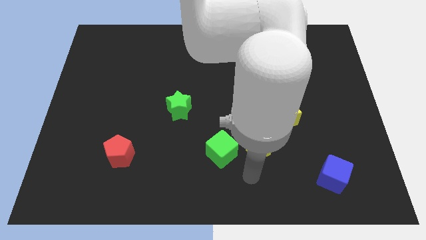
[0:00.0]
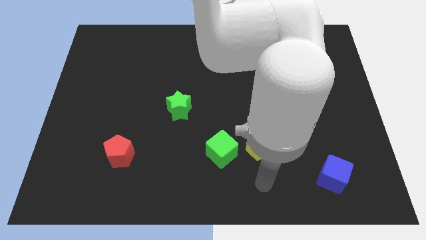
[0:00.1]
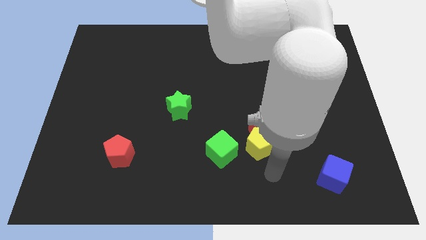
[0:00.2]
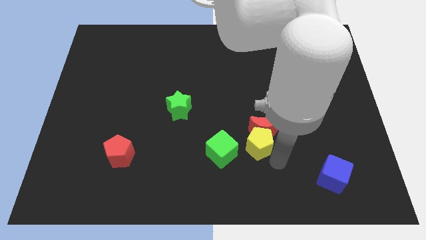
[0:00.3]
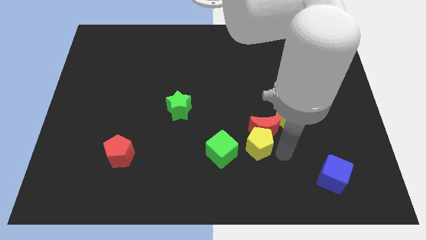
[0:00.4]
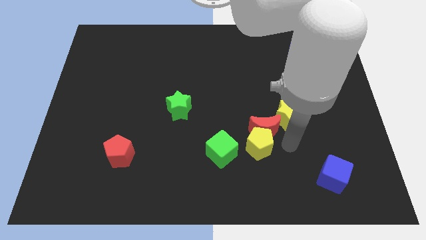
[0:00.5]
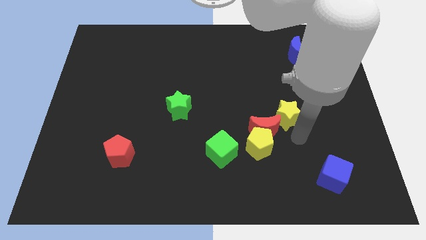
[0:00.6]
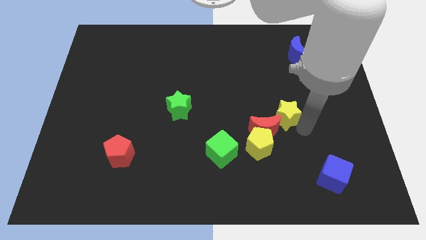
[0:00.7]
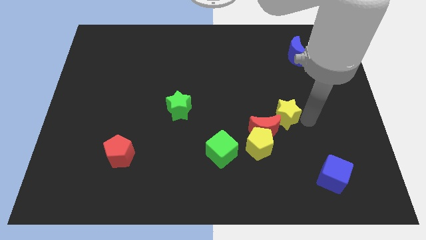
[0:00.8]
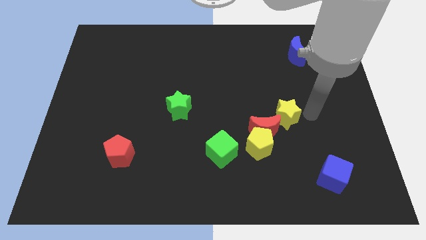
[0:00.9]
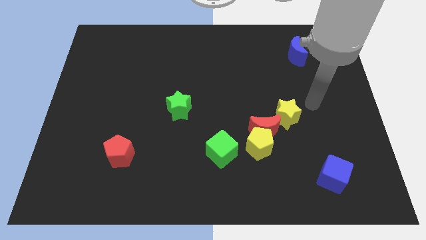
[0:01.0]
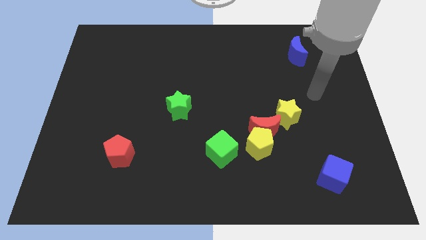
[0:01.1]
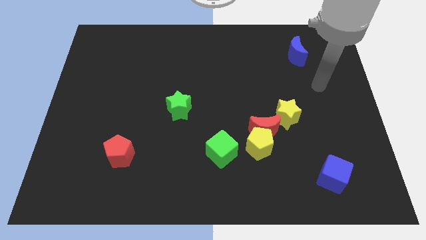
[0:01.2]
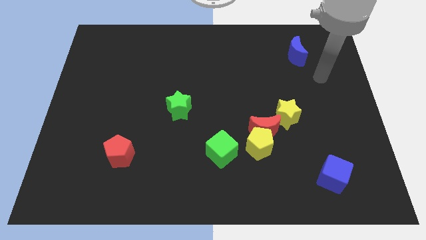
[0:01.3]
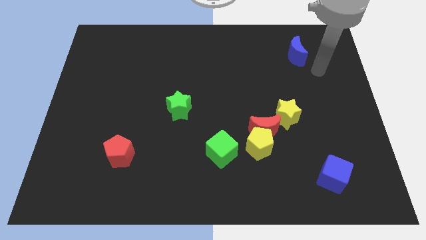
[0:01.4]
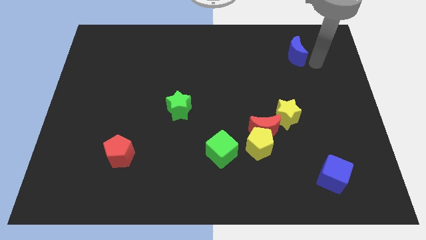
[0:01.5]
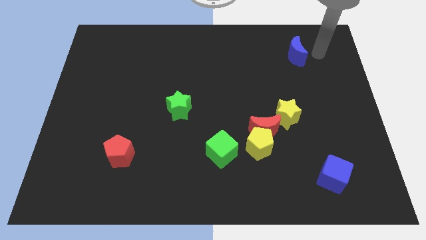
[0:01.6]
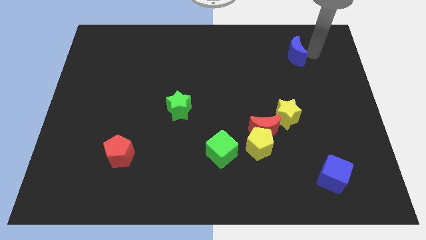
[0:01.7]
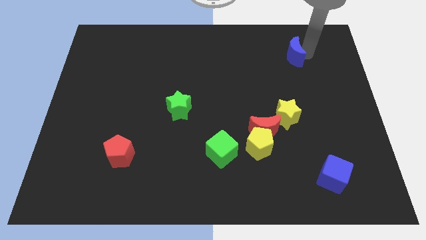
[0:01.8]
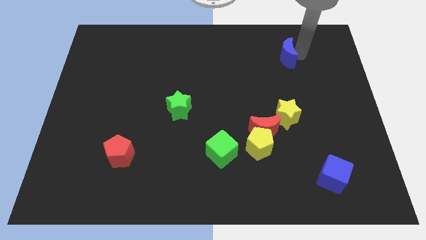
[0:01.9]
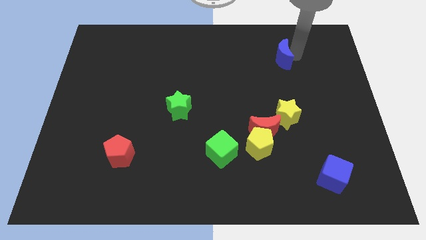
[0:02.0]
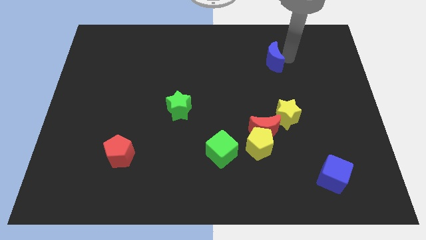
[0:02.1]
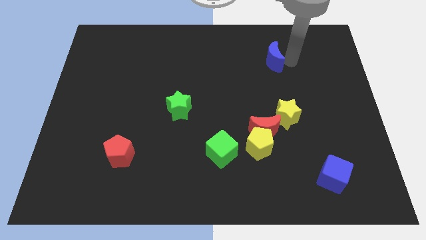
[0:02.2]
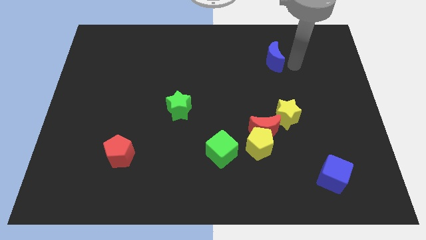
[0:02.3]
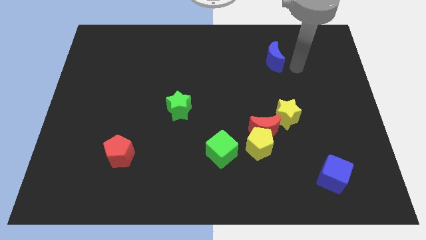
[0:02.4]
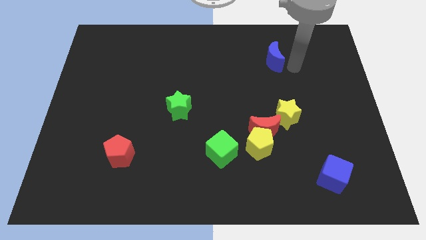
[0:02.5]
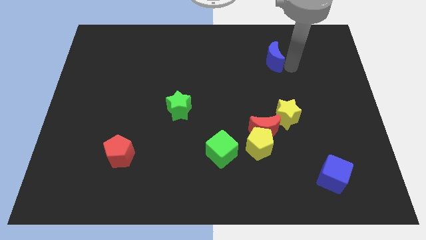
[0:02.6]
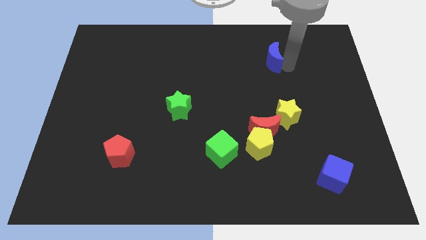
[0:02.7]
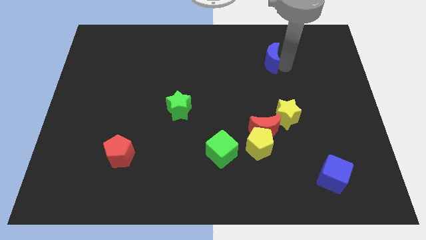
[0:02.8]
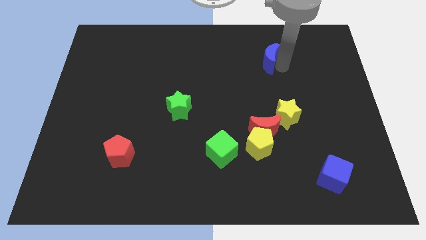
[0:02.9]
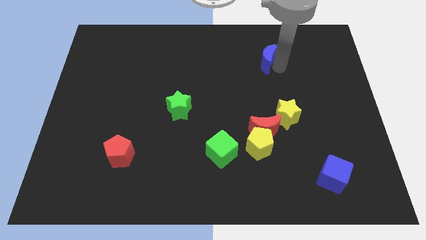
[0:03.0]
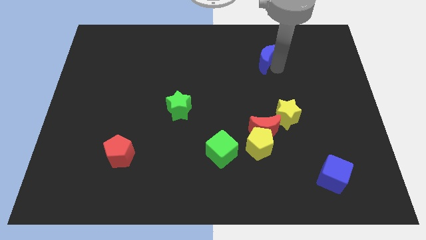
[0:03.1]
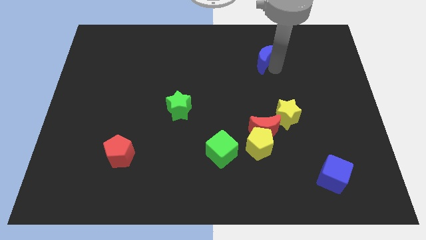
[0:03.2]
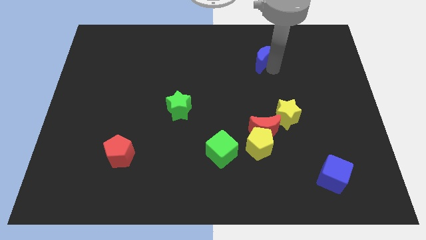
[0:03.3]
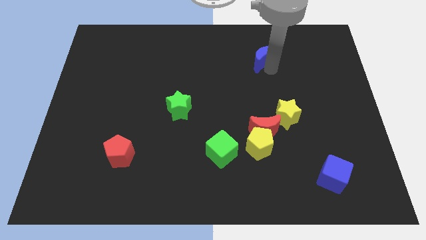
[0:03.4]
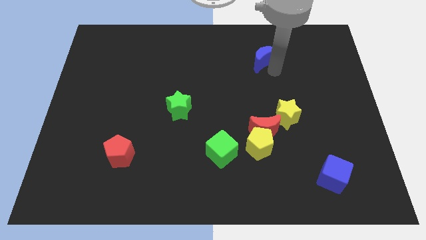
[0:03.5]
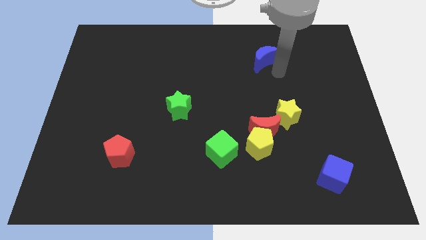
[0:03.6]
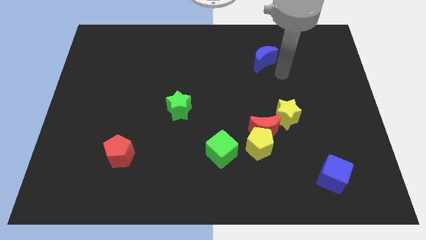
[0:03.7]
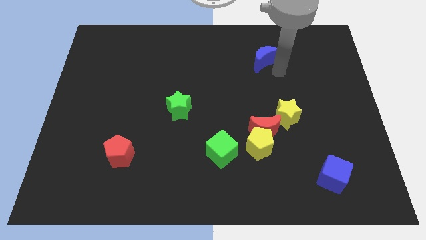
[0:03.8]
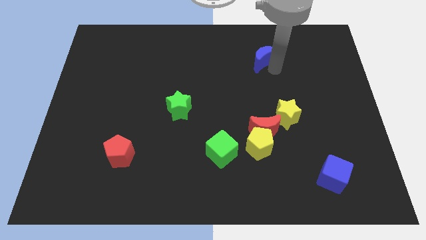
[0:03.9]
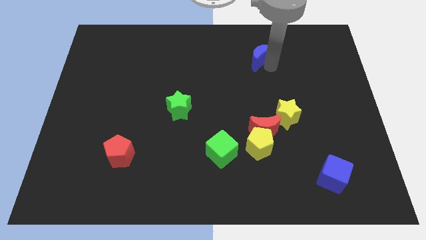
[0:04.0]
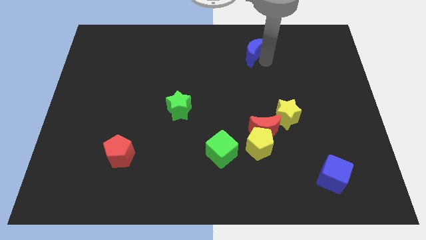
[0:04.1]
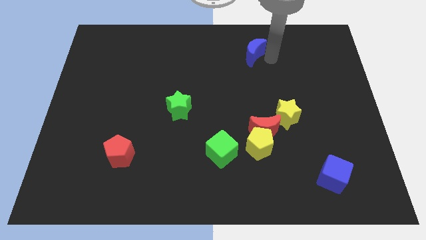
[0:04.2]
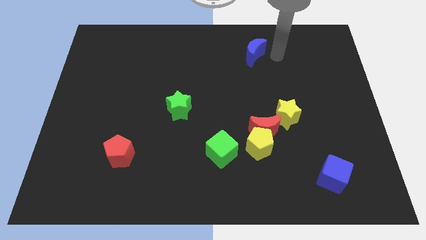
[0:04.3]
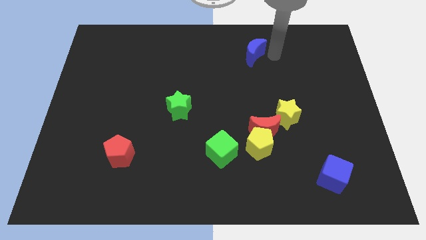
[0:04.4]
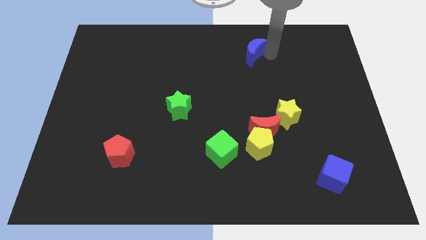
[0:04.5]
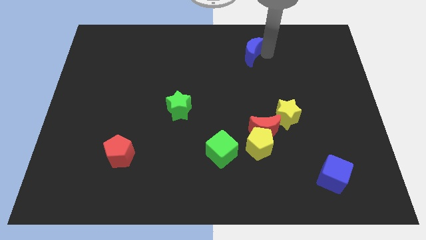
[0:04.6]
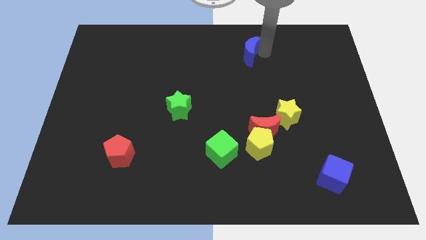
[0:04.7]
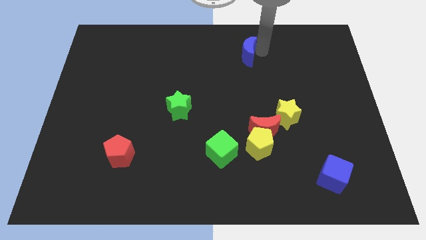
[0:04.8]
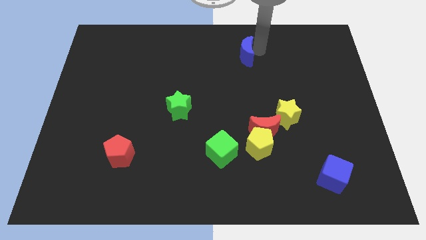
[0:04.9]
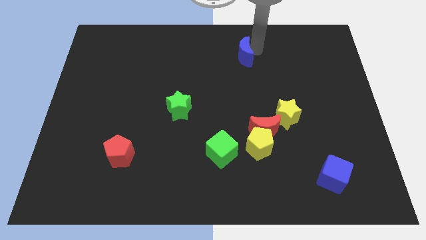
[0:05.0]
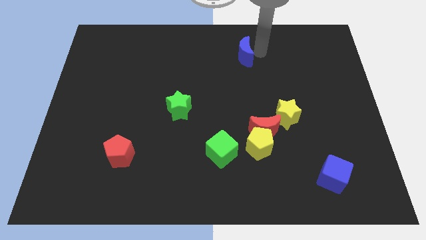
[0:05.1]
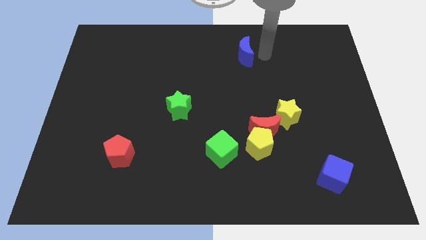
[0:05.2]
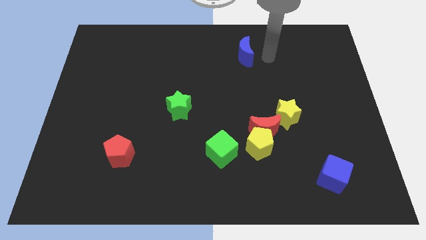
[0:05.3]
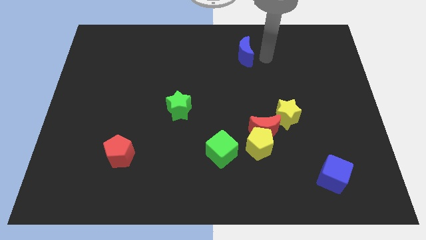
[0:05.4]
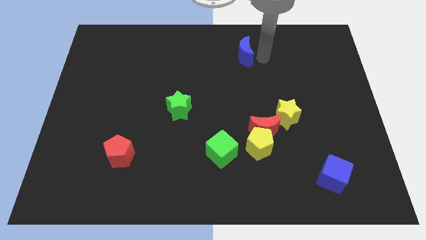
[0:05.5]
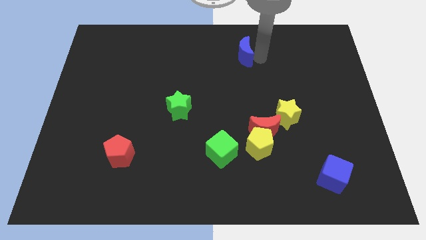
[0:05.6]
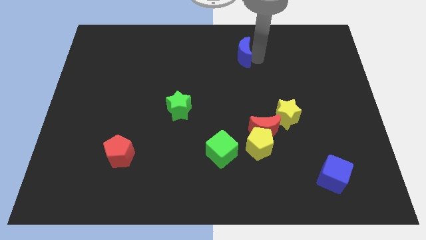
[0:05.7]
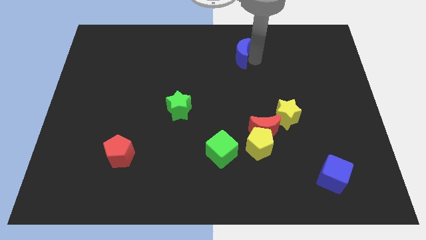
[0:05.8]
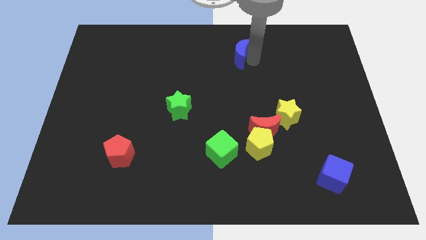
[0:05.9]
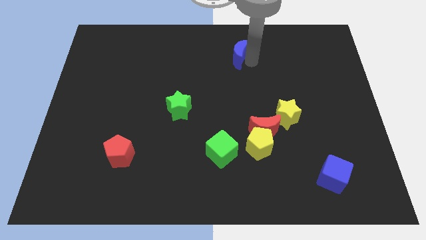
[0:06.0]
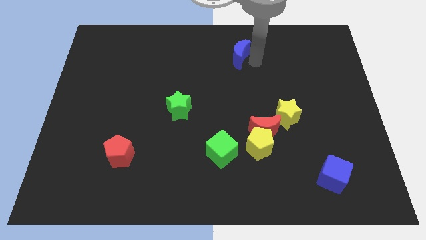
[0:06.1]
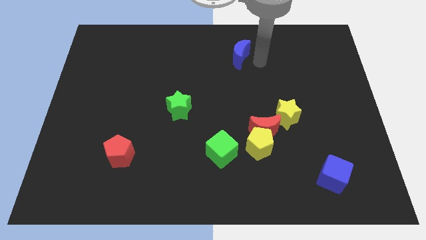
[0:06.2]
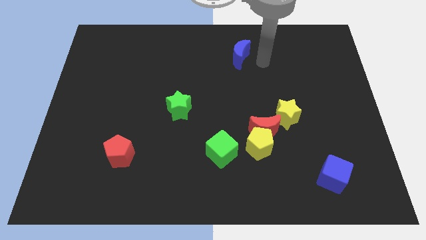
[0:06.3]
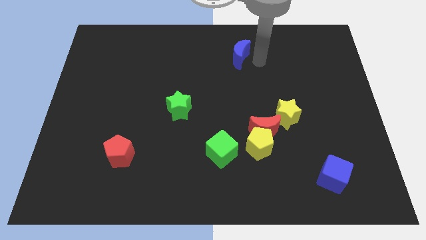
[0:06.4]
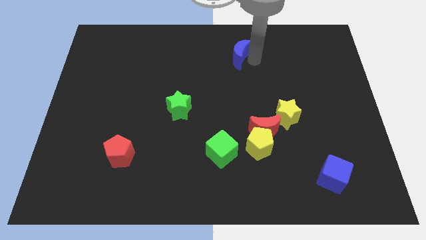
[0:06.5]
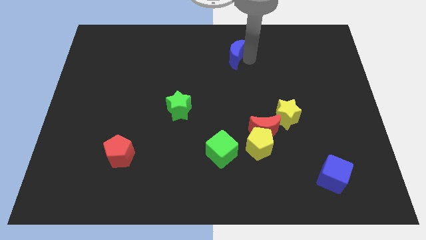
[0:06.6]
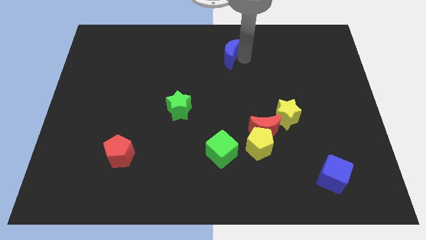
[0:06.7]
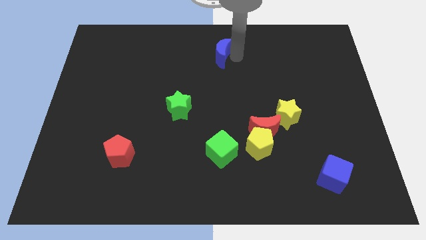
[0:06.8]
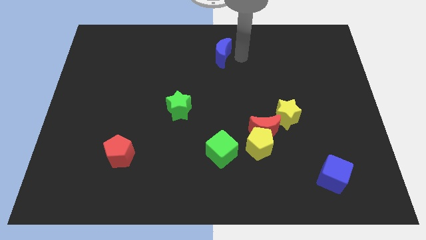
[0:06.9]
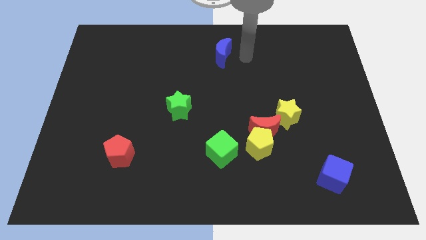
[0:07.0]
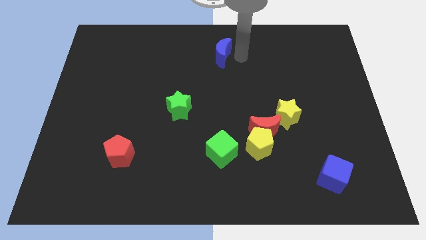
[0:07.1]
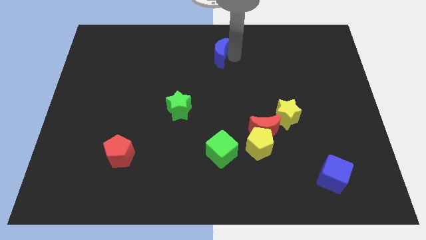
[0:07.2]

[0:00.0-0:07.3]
move the blue moon to the left

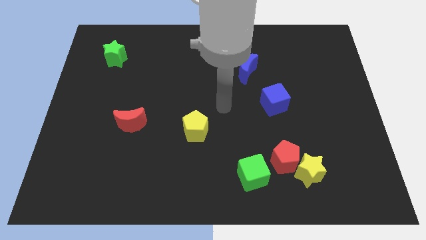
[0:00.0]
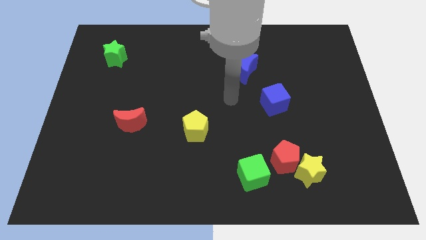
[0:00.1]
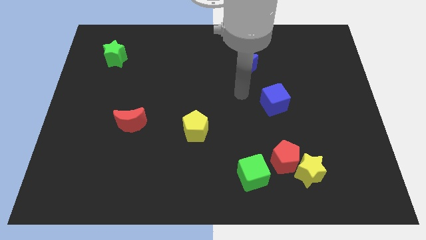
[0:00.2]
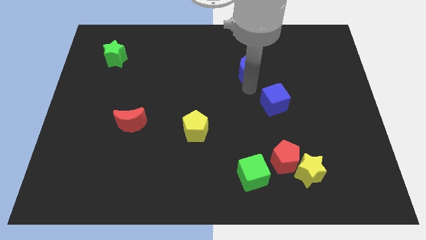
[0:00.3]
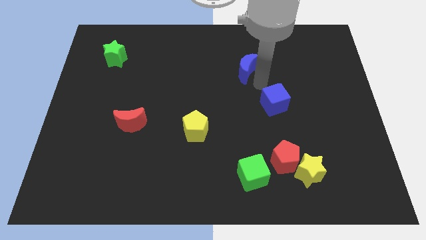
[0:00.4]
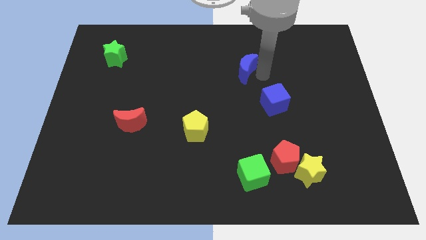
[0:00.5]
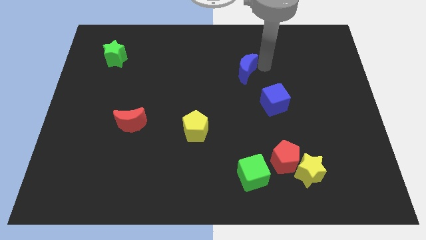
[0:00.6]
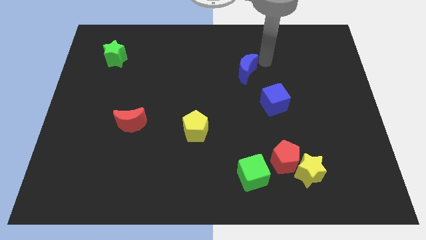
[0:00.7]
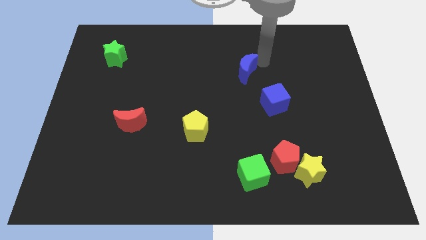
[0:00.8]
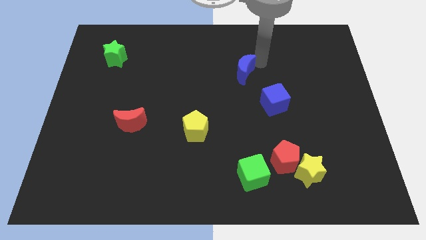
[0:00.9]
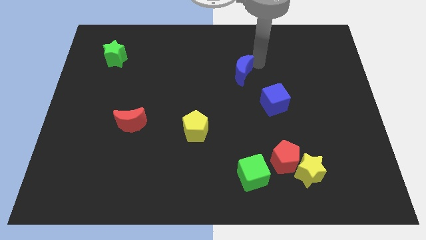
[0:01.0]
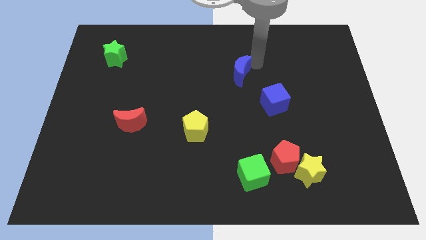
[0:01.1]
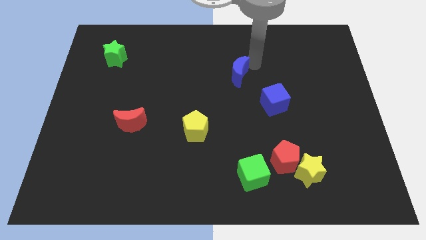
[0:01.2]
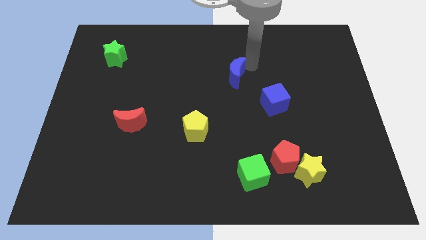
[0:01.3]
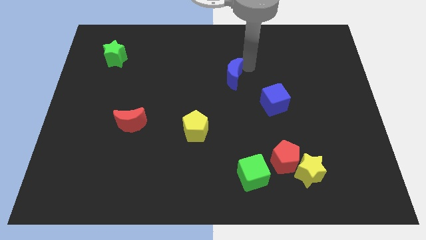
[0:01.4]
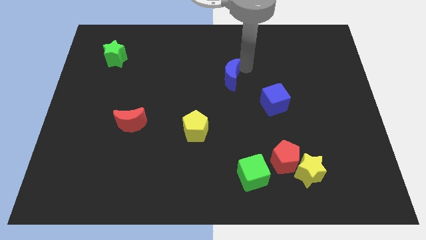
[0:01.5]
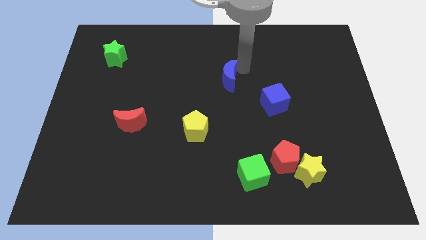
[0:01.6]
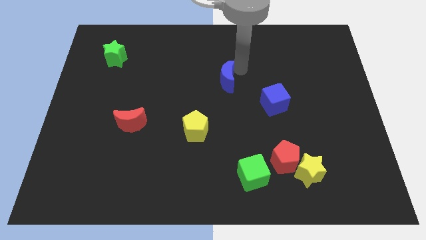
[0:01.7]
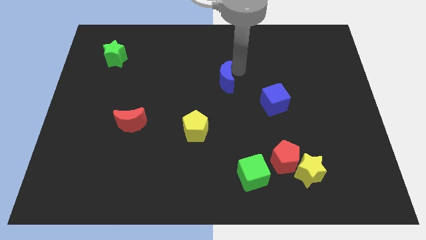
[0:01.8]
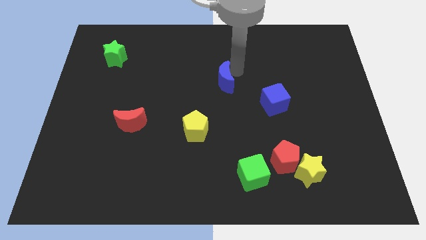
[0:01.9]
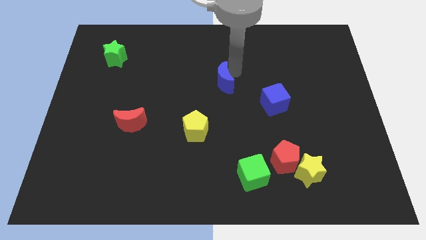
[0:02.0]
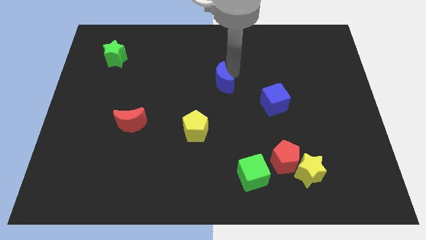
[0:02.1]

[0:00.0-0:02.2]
move the blue moon a little bit diagonally downwards and to the left
